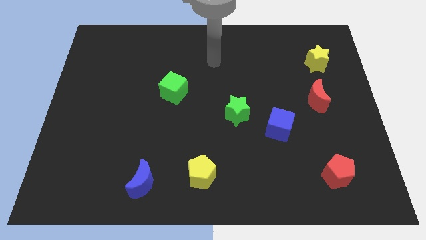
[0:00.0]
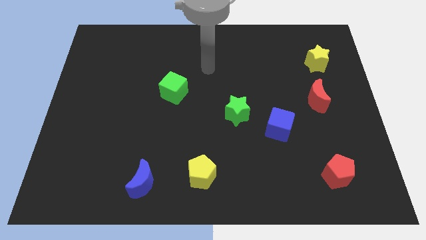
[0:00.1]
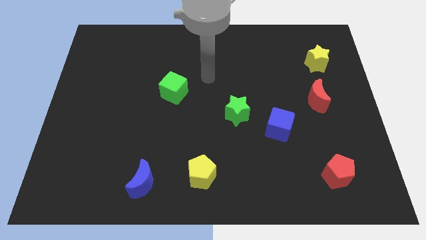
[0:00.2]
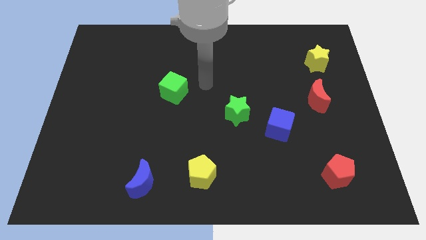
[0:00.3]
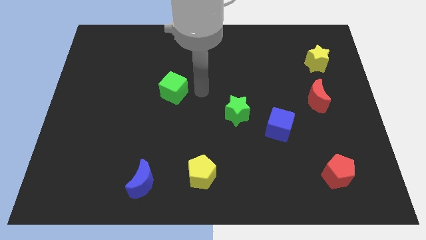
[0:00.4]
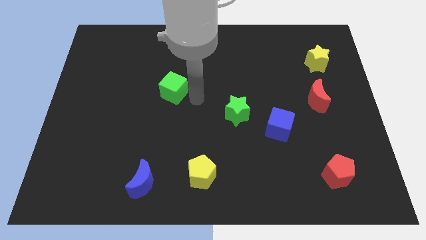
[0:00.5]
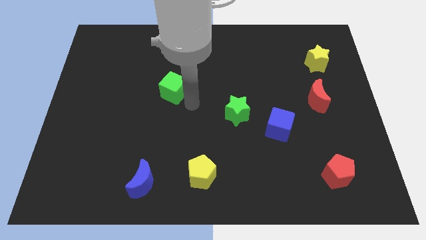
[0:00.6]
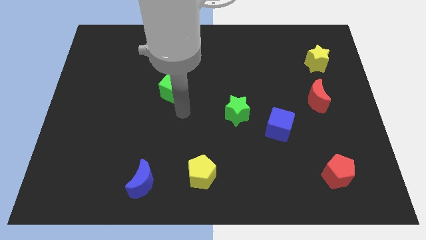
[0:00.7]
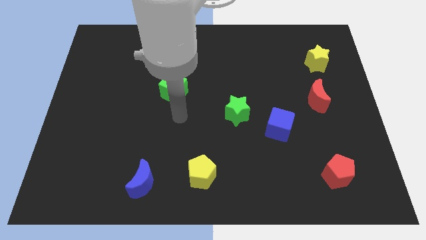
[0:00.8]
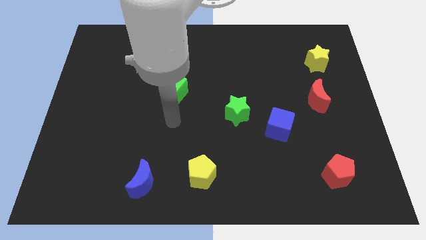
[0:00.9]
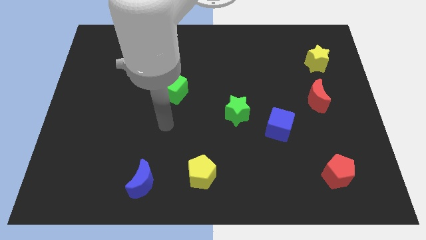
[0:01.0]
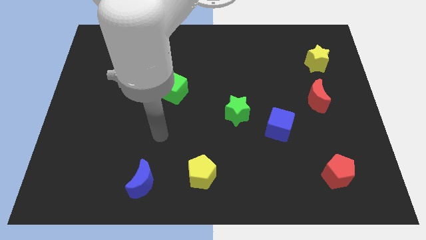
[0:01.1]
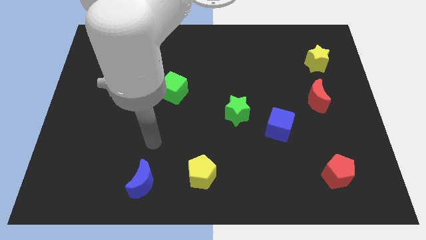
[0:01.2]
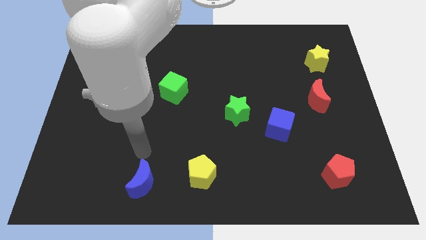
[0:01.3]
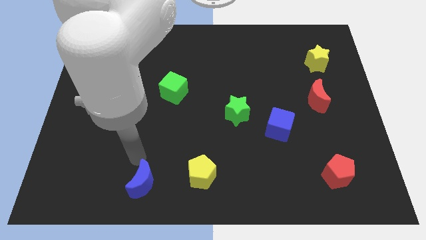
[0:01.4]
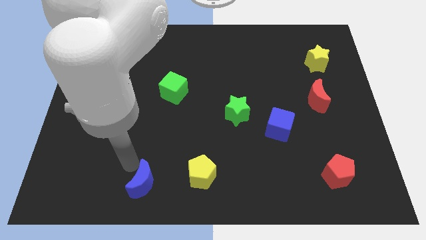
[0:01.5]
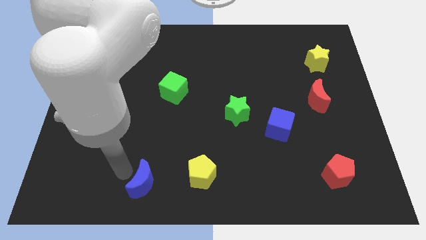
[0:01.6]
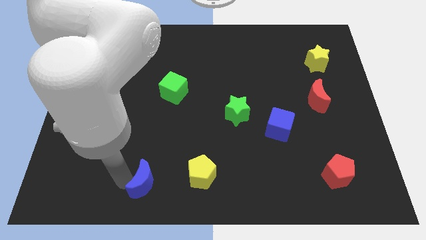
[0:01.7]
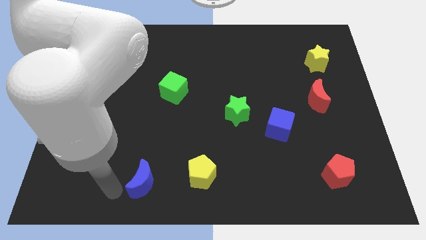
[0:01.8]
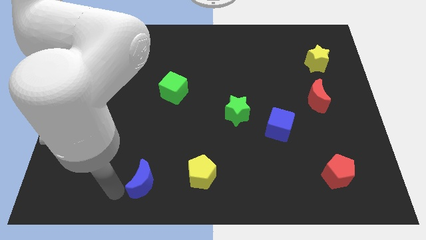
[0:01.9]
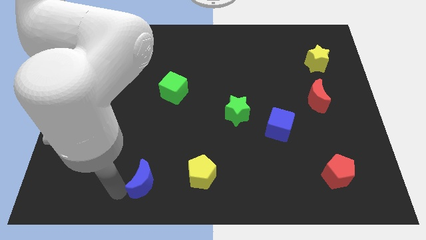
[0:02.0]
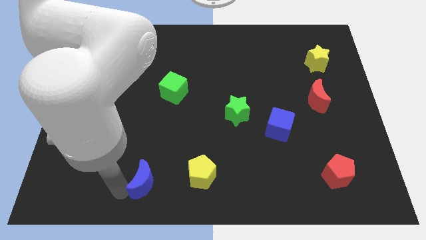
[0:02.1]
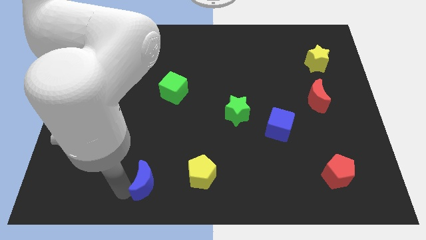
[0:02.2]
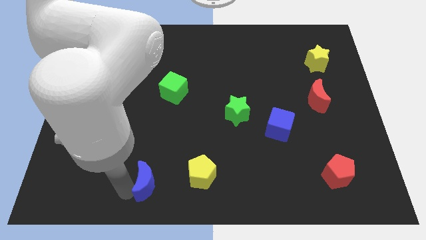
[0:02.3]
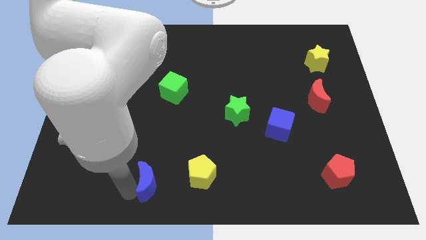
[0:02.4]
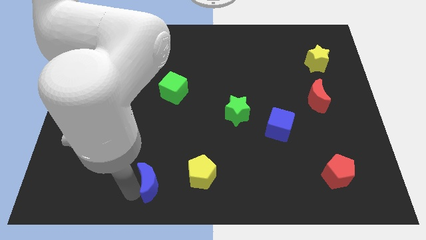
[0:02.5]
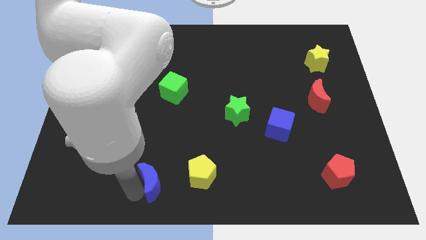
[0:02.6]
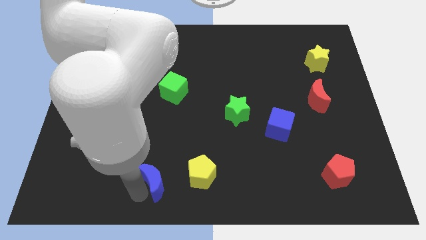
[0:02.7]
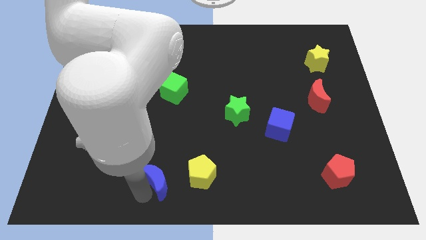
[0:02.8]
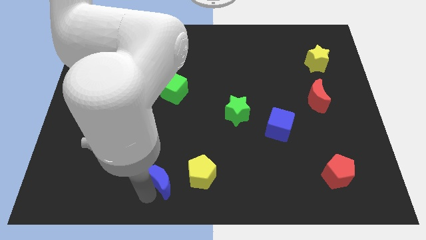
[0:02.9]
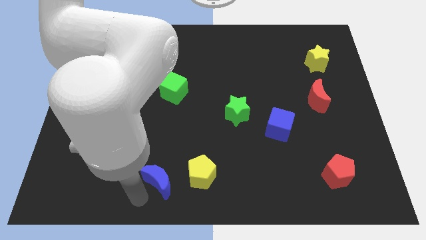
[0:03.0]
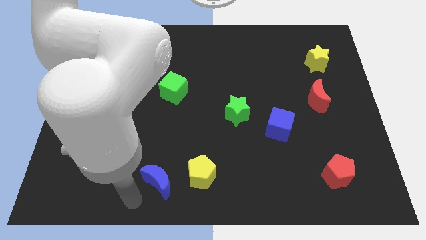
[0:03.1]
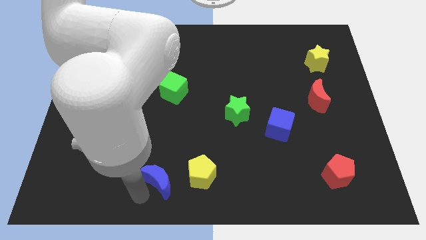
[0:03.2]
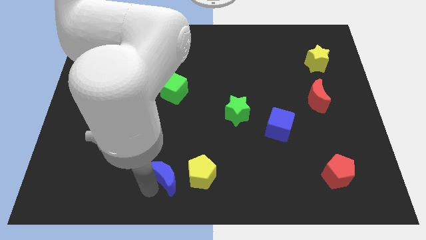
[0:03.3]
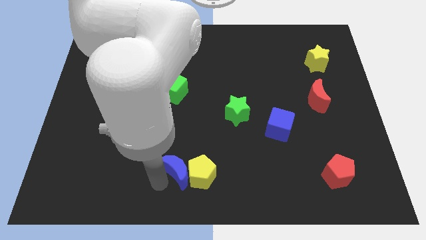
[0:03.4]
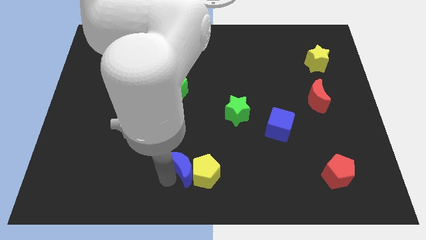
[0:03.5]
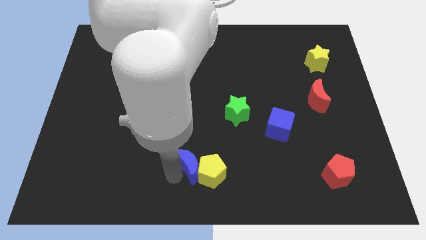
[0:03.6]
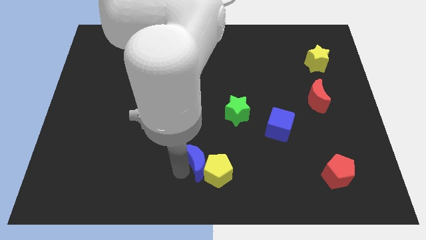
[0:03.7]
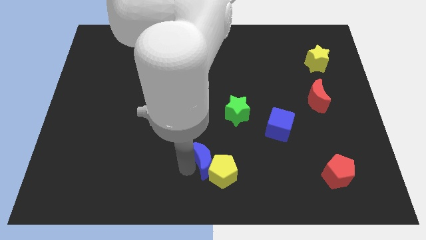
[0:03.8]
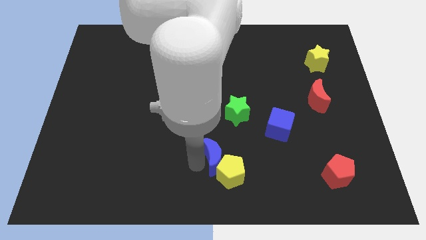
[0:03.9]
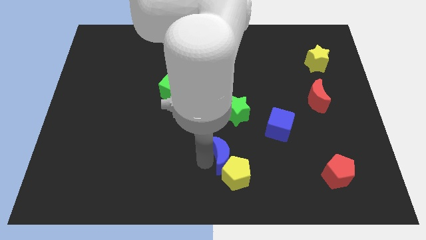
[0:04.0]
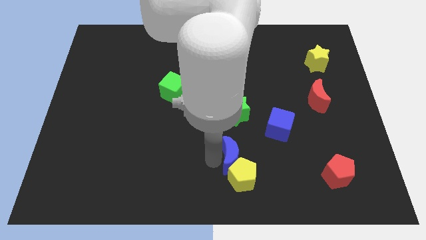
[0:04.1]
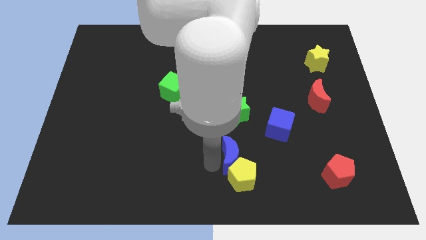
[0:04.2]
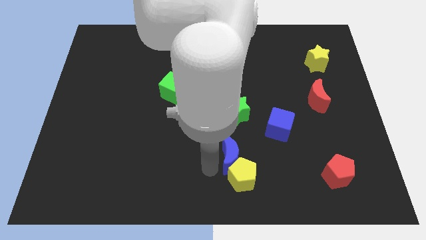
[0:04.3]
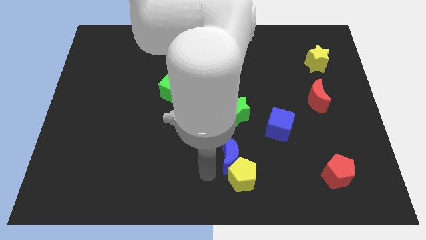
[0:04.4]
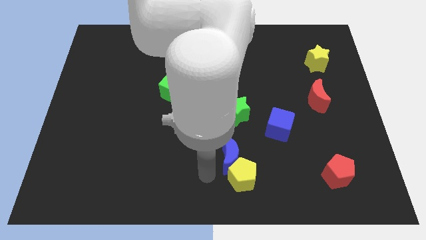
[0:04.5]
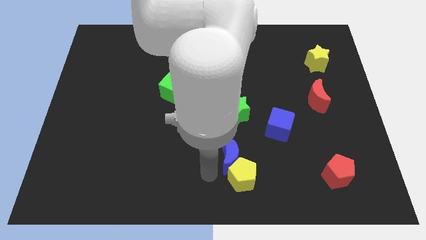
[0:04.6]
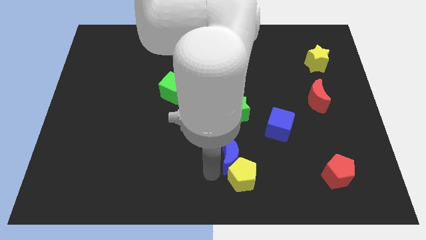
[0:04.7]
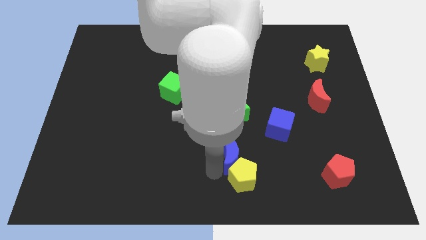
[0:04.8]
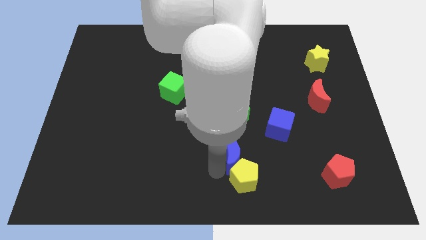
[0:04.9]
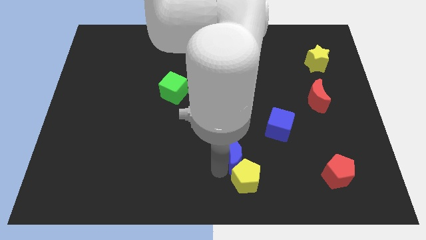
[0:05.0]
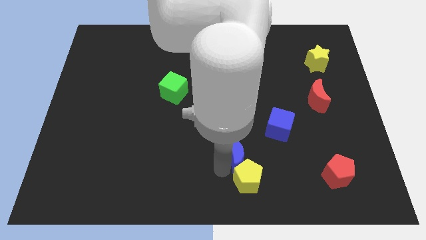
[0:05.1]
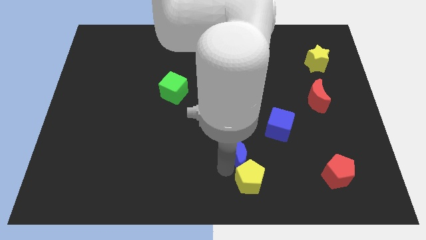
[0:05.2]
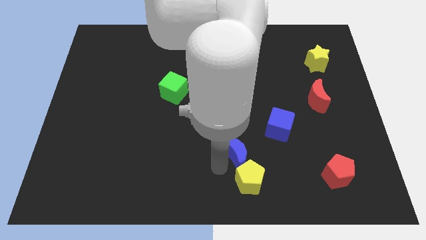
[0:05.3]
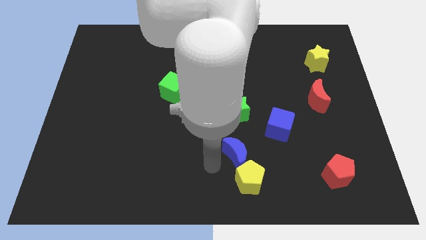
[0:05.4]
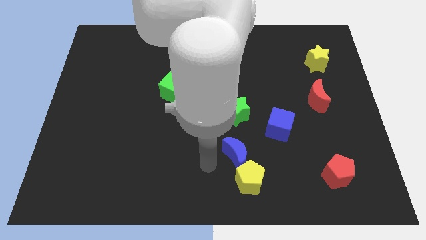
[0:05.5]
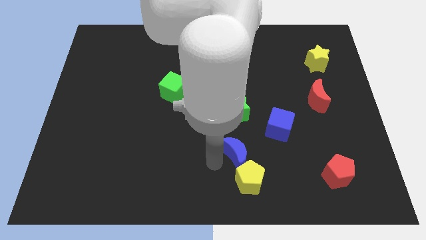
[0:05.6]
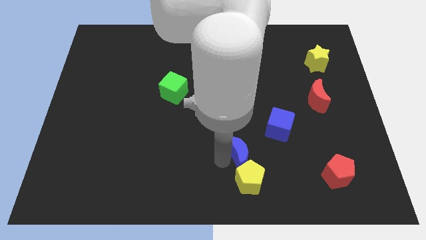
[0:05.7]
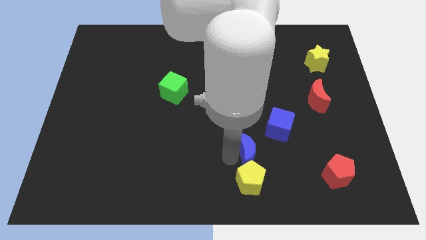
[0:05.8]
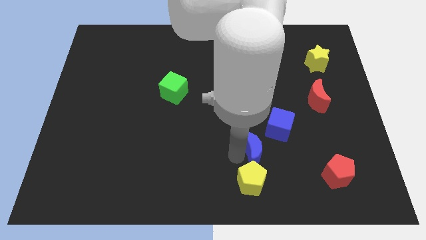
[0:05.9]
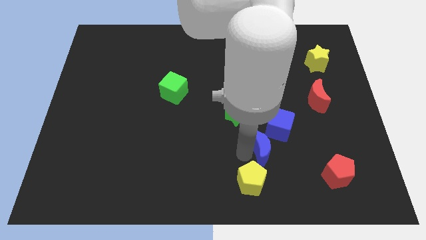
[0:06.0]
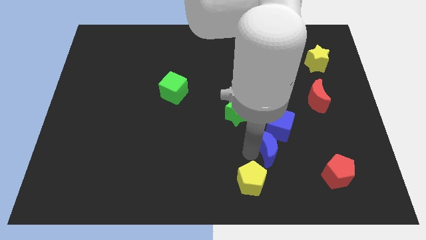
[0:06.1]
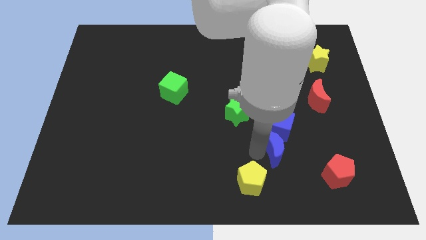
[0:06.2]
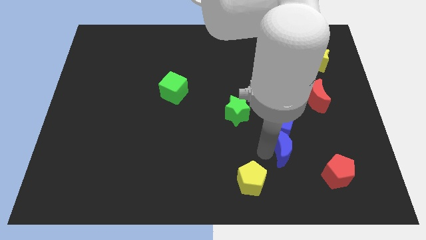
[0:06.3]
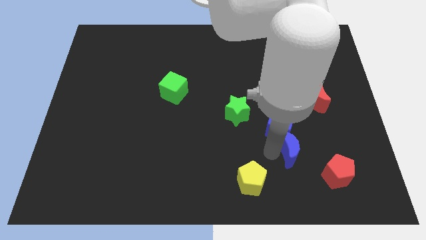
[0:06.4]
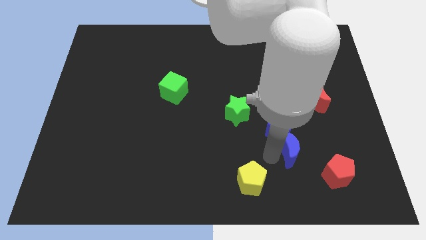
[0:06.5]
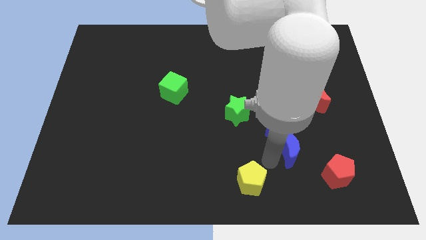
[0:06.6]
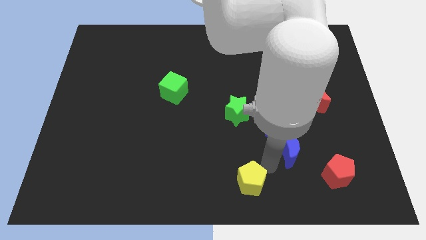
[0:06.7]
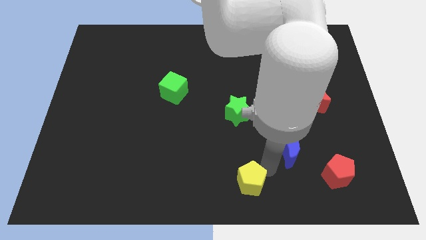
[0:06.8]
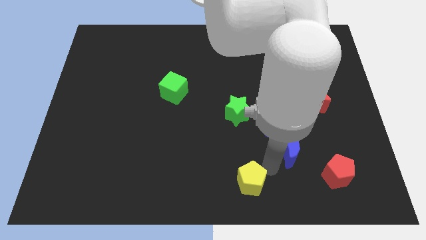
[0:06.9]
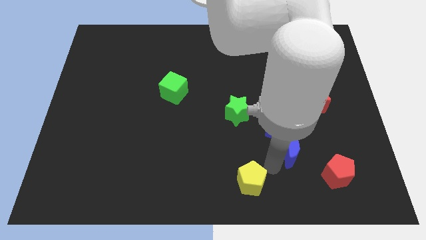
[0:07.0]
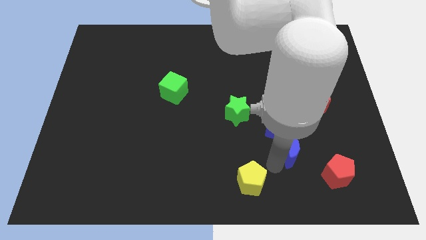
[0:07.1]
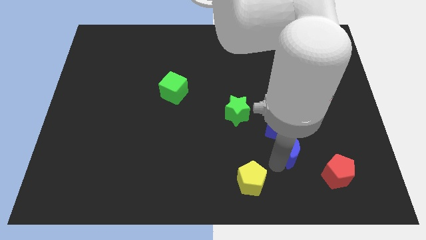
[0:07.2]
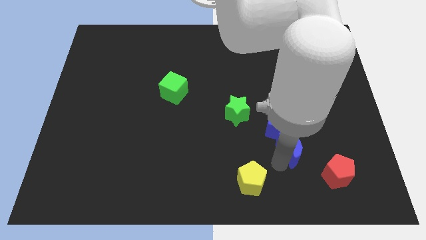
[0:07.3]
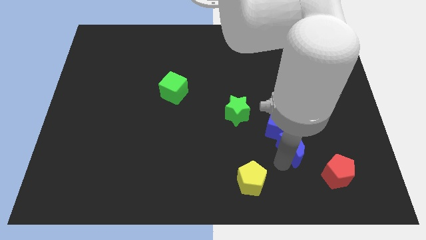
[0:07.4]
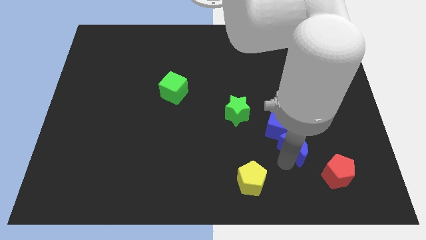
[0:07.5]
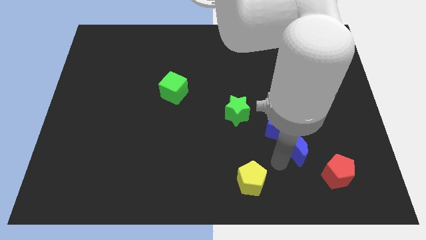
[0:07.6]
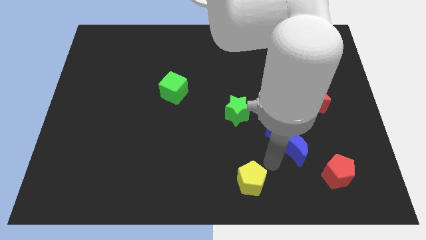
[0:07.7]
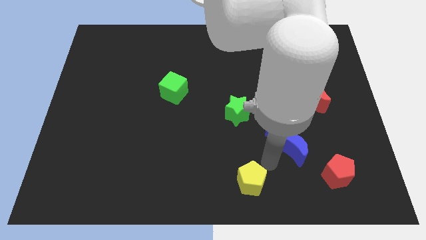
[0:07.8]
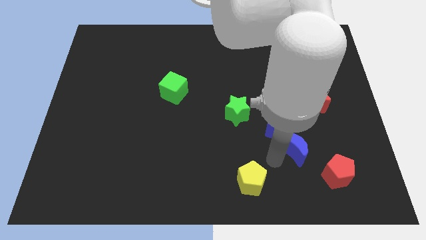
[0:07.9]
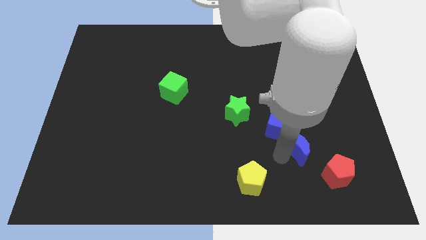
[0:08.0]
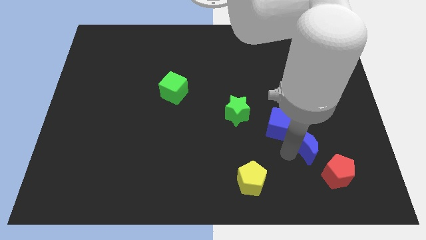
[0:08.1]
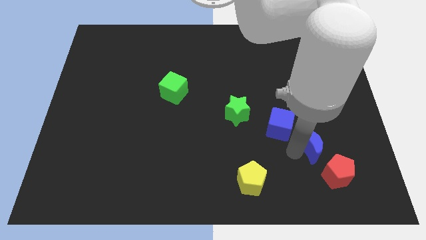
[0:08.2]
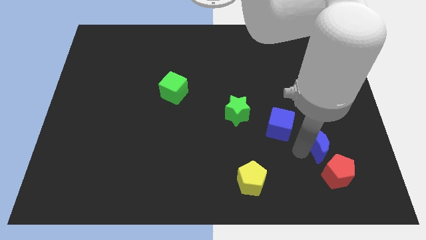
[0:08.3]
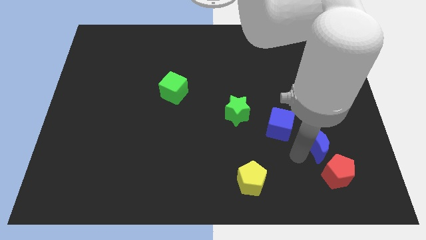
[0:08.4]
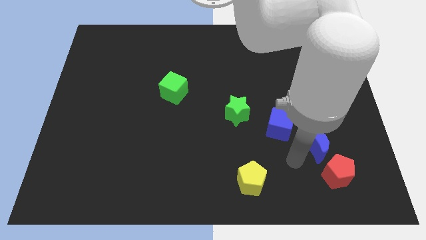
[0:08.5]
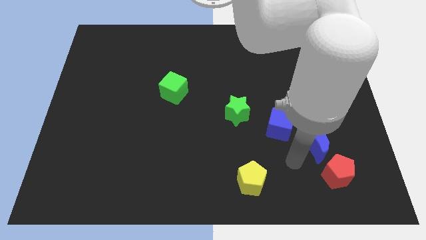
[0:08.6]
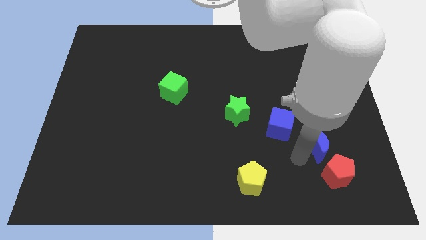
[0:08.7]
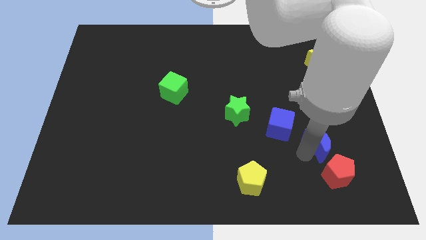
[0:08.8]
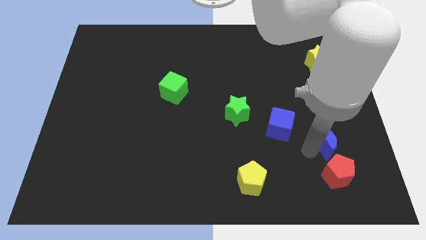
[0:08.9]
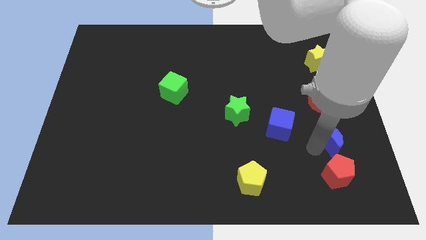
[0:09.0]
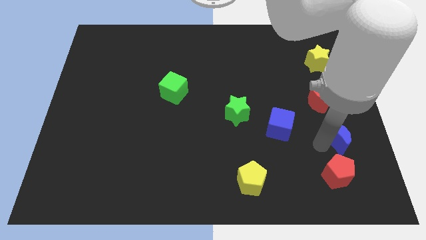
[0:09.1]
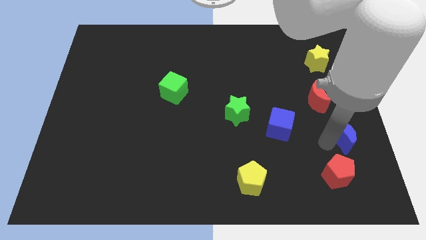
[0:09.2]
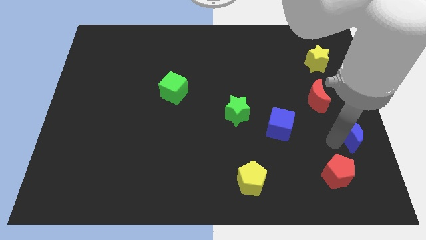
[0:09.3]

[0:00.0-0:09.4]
move the blue moon to the right side
